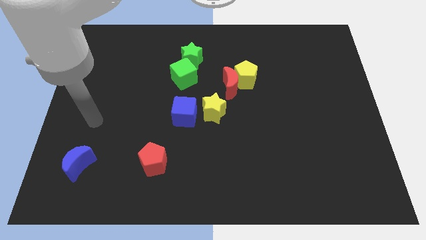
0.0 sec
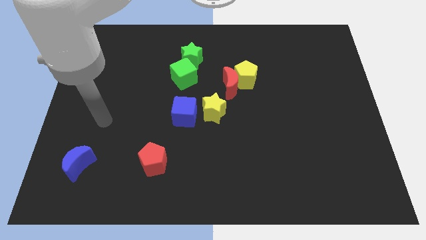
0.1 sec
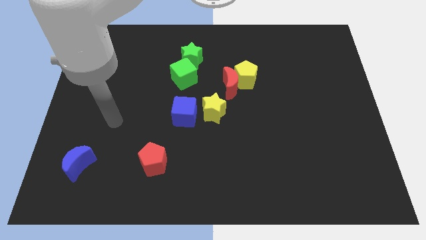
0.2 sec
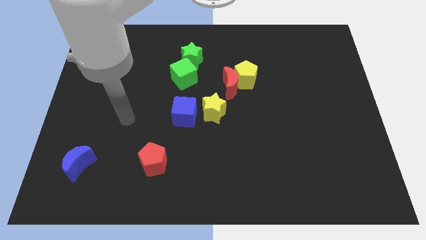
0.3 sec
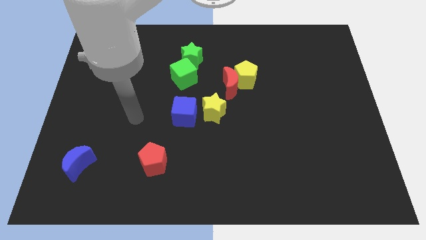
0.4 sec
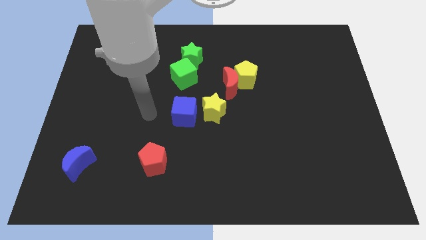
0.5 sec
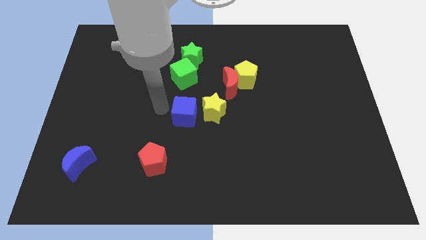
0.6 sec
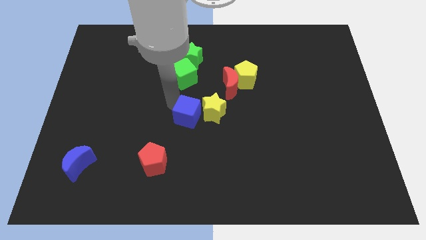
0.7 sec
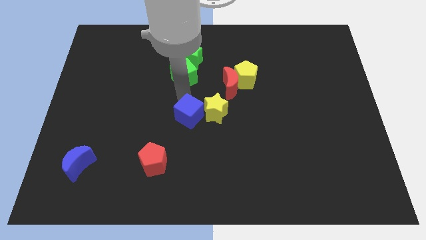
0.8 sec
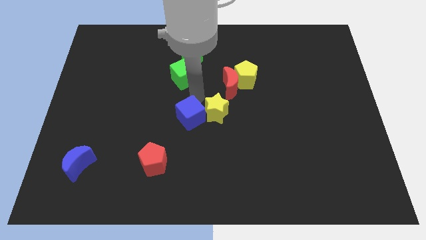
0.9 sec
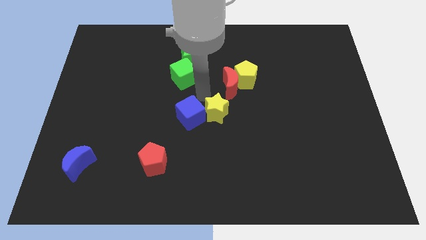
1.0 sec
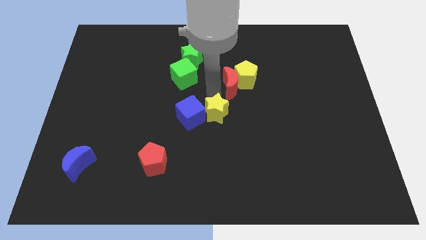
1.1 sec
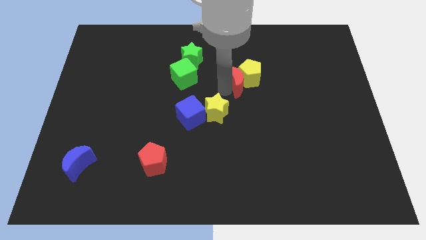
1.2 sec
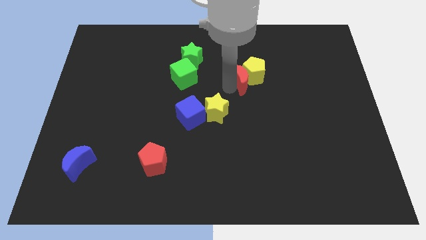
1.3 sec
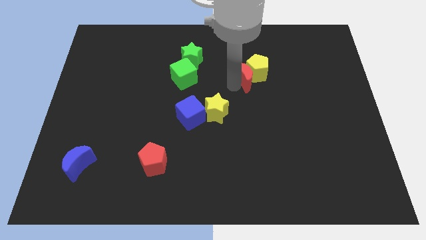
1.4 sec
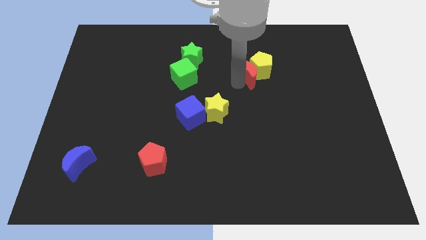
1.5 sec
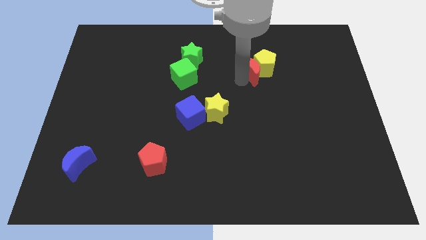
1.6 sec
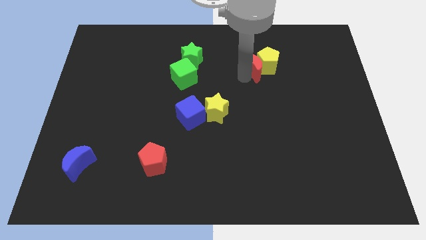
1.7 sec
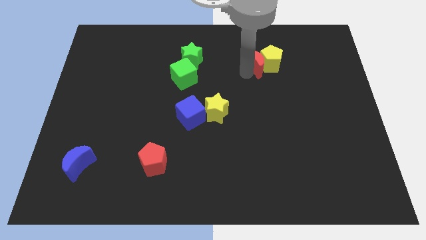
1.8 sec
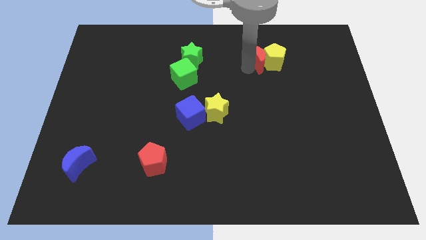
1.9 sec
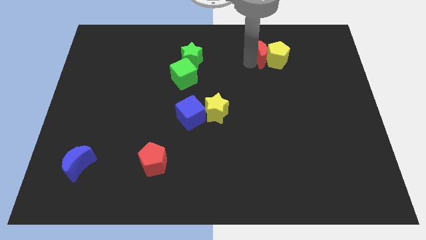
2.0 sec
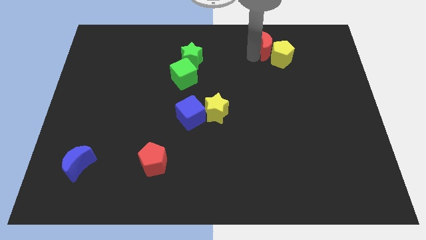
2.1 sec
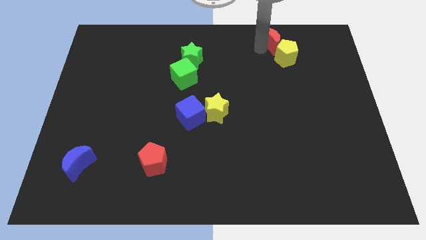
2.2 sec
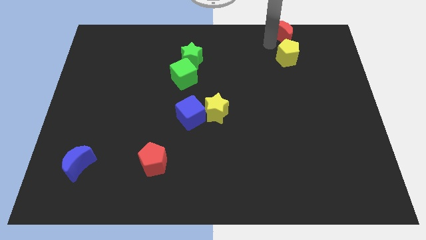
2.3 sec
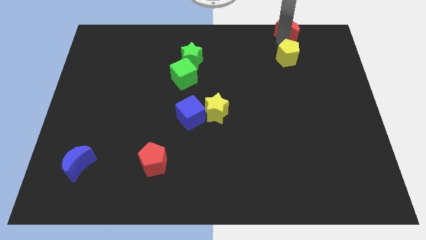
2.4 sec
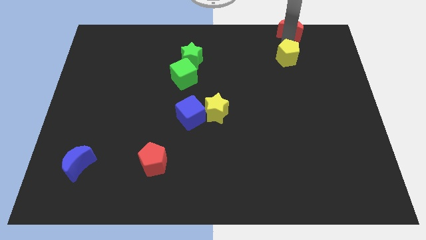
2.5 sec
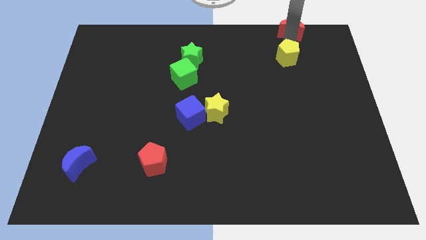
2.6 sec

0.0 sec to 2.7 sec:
move the yellow pentagon away from the red moon

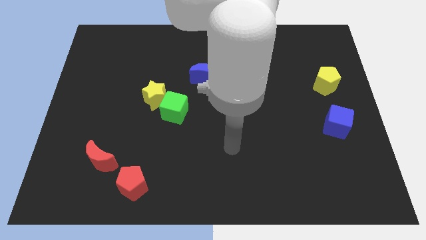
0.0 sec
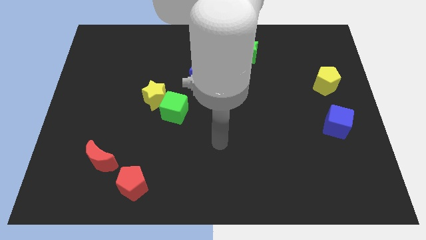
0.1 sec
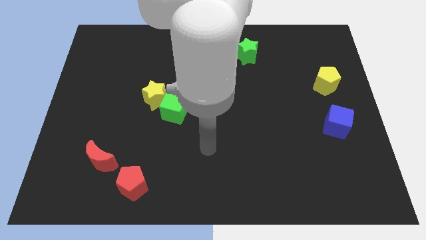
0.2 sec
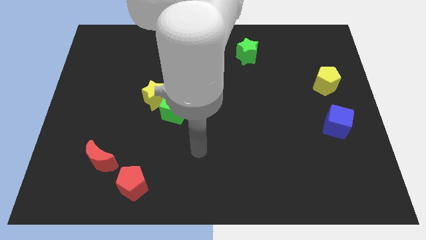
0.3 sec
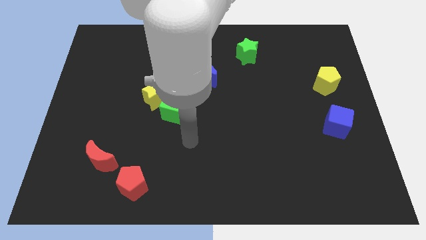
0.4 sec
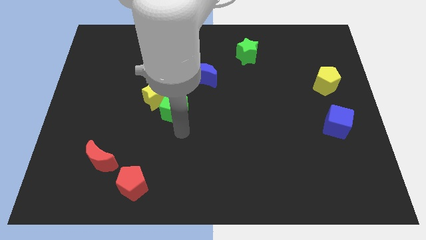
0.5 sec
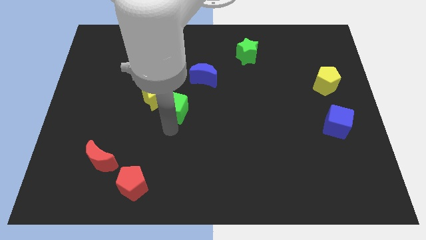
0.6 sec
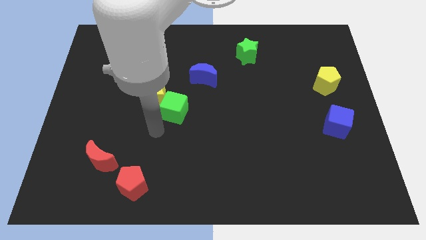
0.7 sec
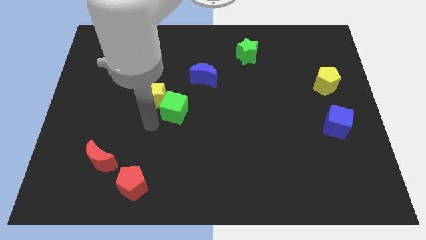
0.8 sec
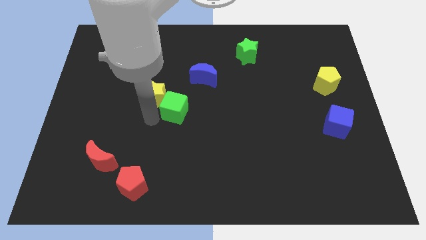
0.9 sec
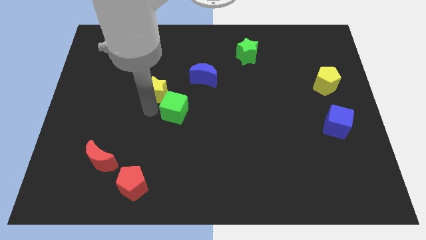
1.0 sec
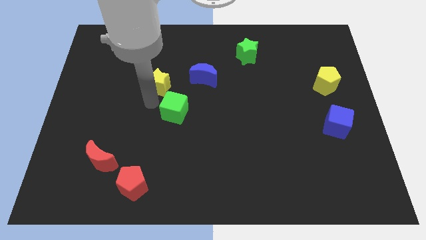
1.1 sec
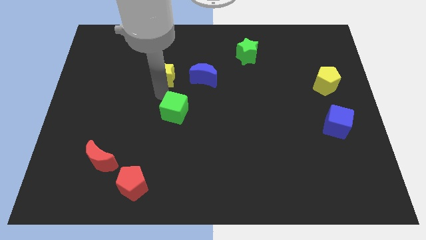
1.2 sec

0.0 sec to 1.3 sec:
pull the green cube apart from the yellow star

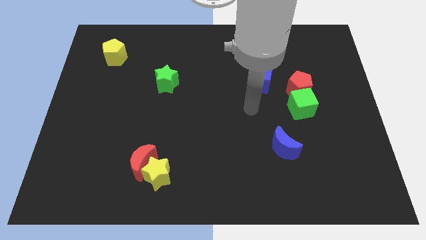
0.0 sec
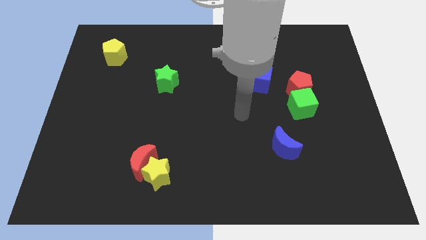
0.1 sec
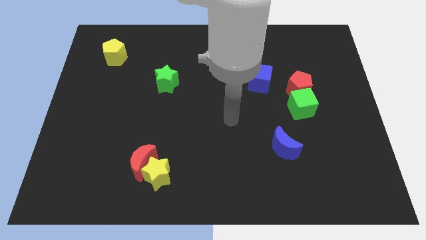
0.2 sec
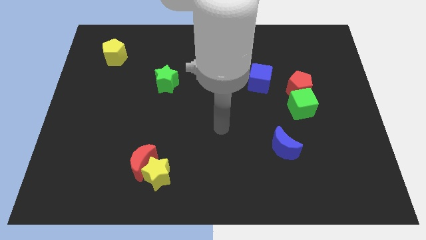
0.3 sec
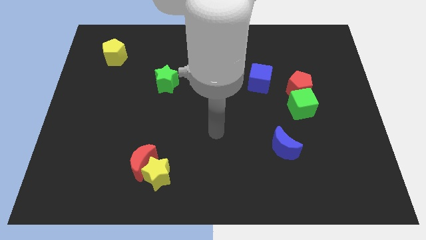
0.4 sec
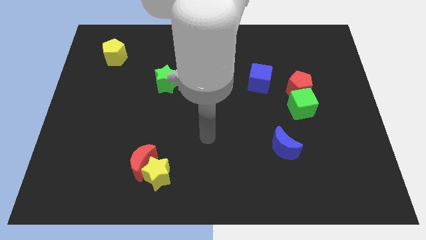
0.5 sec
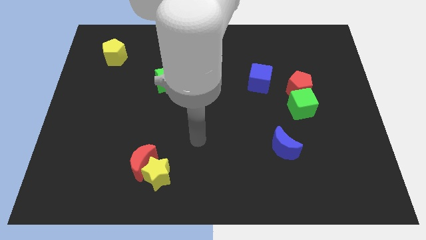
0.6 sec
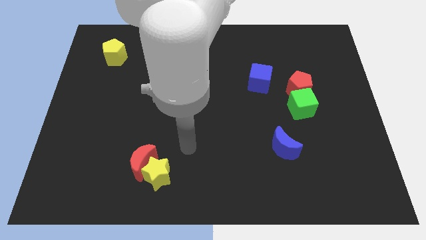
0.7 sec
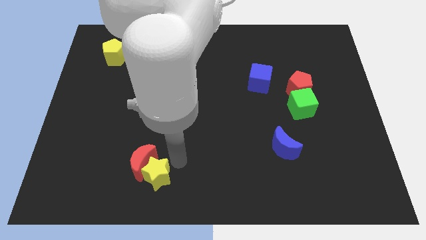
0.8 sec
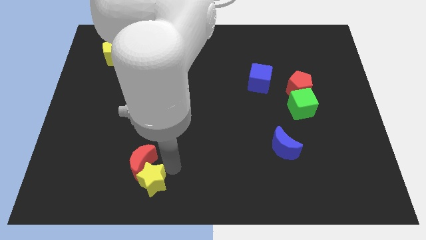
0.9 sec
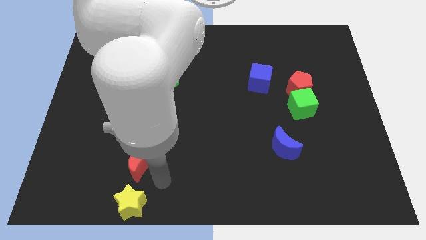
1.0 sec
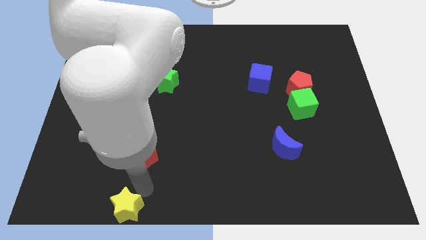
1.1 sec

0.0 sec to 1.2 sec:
pull the red moon apart from the yellow star

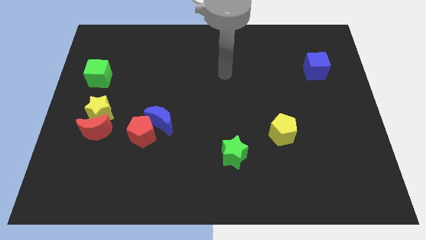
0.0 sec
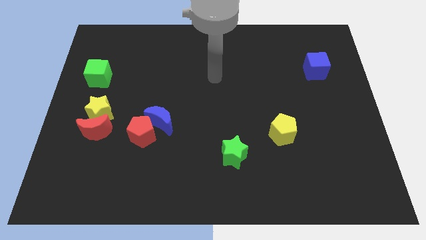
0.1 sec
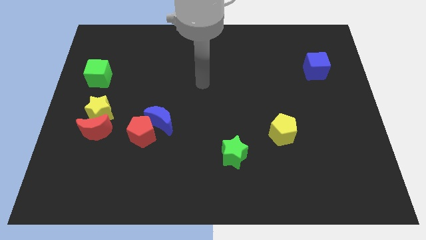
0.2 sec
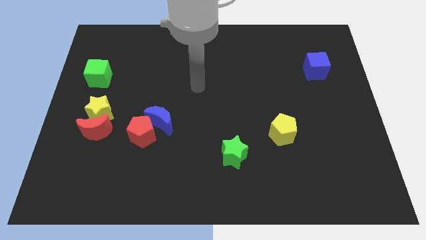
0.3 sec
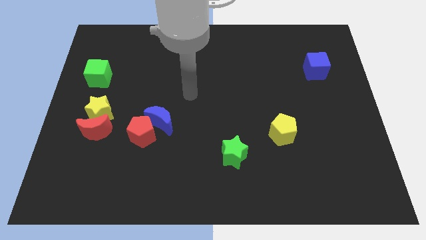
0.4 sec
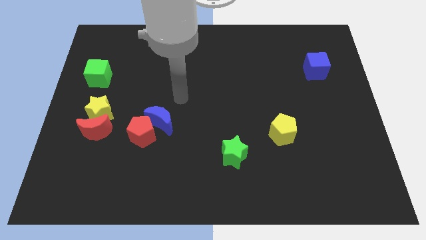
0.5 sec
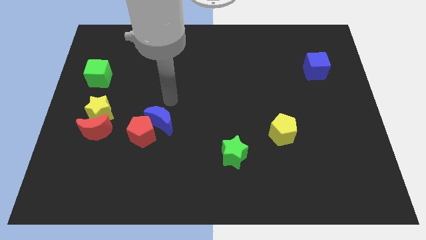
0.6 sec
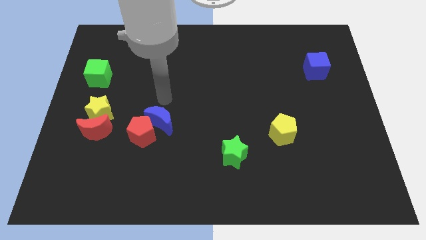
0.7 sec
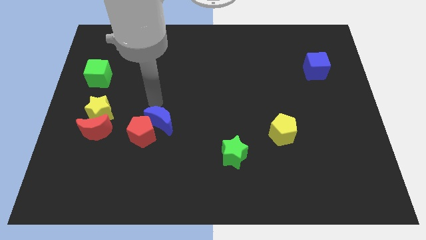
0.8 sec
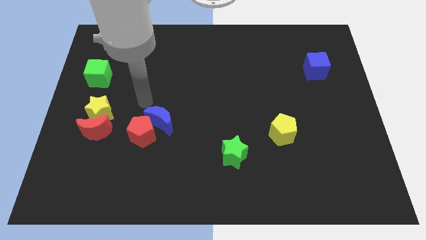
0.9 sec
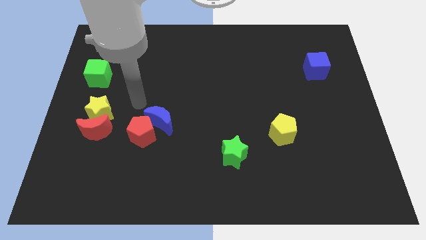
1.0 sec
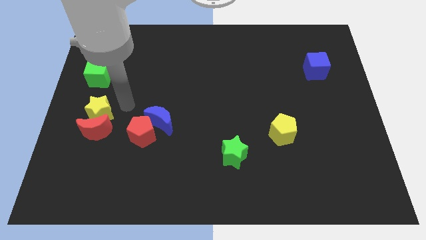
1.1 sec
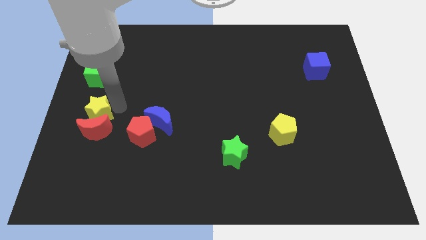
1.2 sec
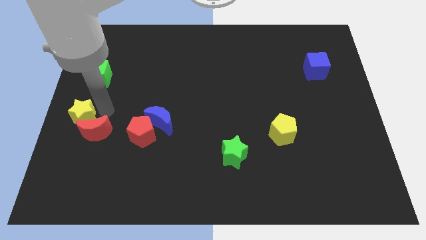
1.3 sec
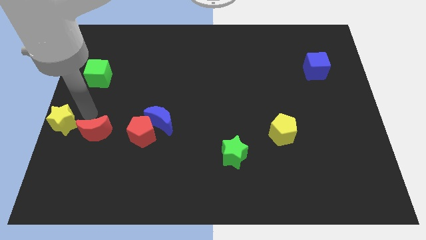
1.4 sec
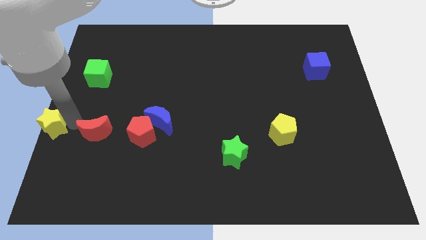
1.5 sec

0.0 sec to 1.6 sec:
move the red moon away from the yellow star

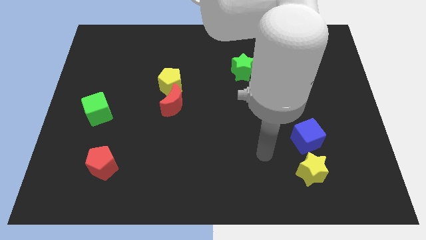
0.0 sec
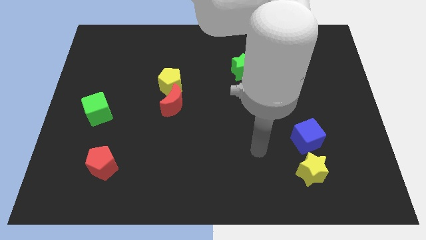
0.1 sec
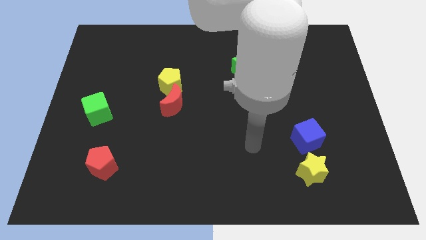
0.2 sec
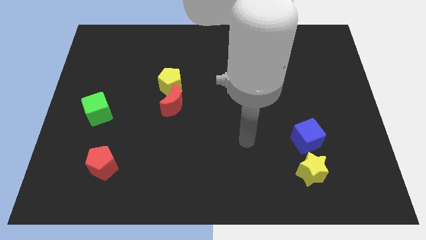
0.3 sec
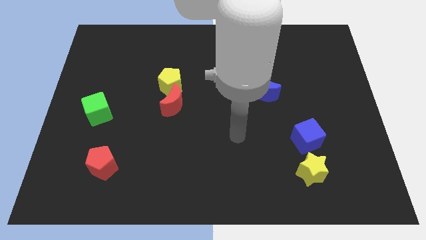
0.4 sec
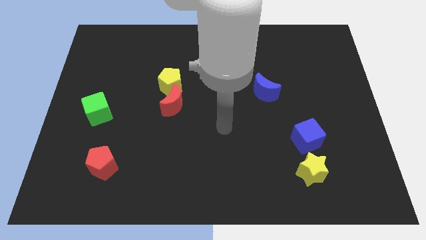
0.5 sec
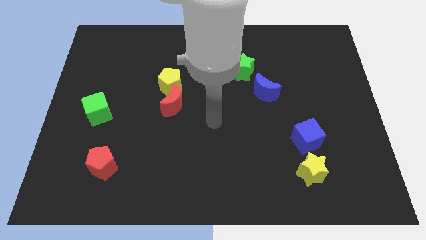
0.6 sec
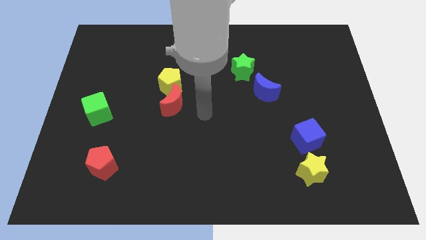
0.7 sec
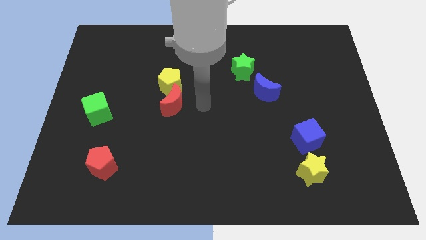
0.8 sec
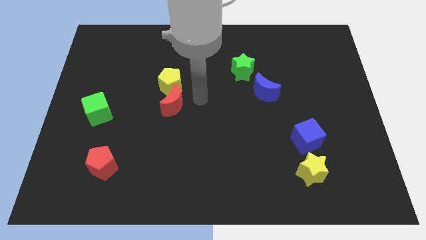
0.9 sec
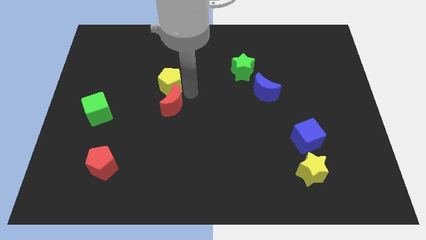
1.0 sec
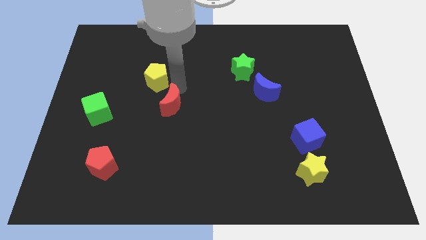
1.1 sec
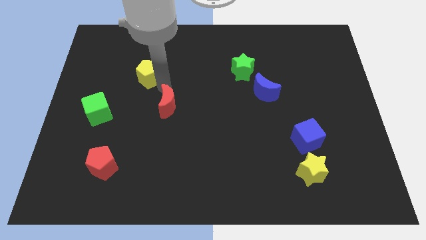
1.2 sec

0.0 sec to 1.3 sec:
pull the red moon apart from the yellow pentagon

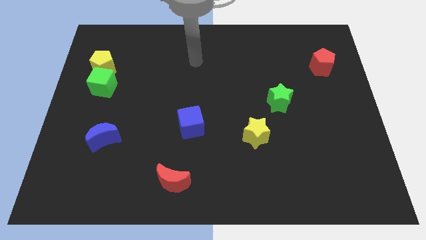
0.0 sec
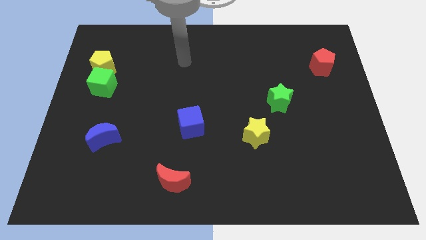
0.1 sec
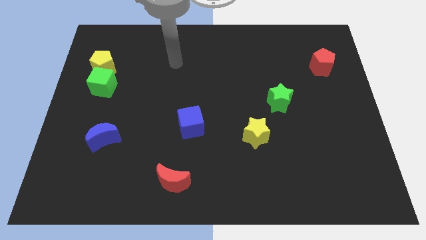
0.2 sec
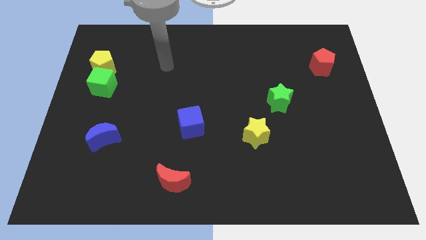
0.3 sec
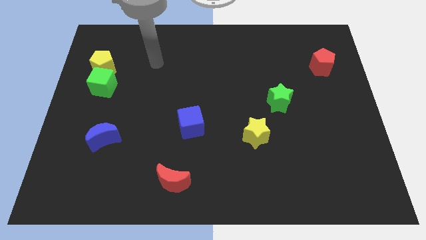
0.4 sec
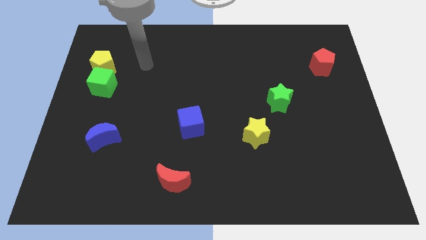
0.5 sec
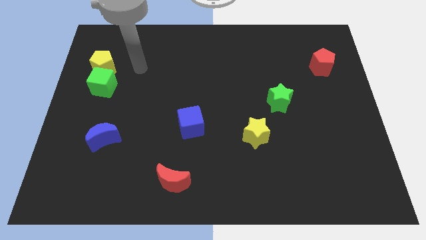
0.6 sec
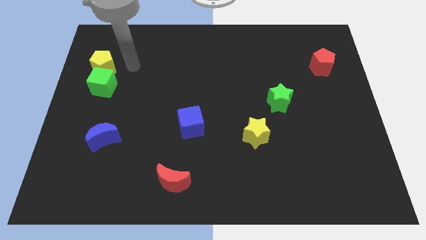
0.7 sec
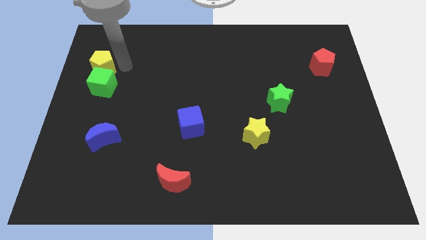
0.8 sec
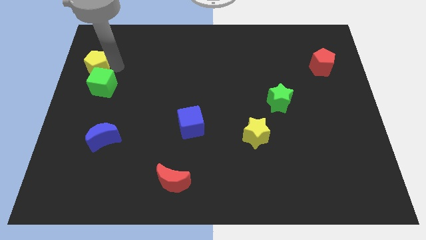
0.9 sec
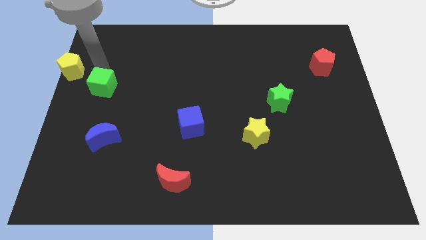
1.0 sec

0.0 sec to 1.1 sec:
move the green cube away from the yellow pentagon

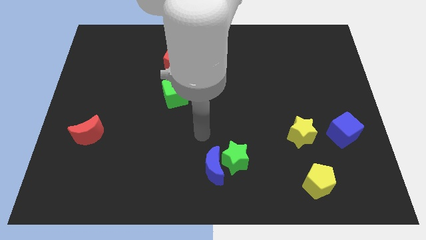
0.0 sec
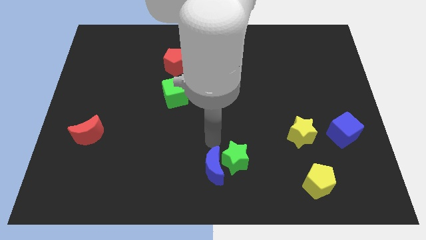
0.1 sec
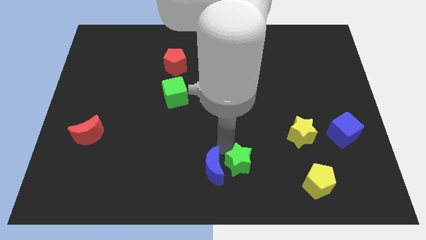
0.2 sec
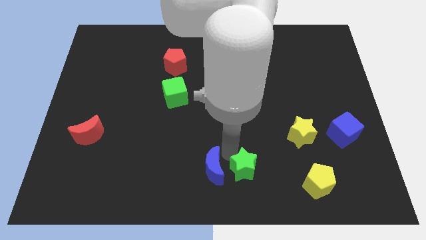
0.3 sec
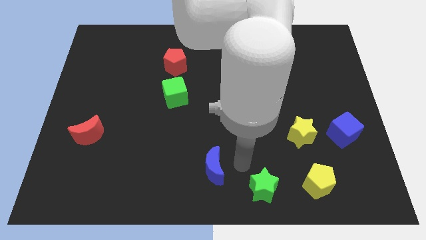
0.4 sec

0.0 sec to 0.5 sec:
separate the blue moon from the green star
